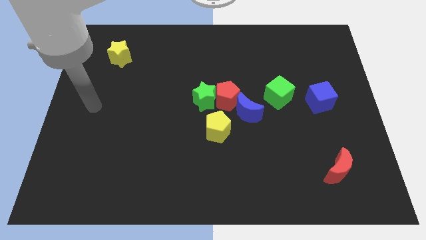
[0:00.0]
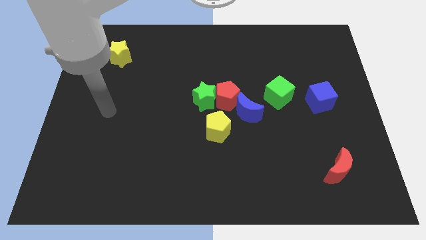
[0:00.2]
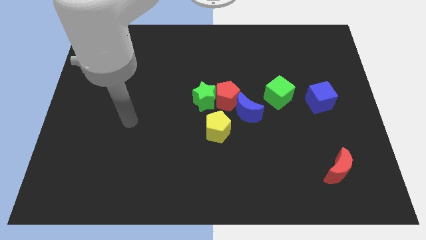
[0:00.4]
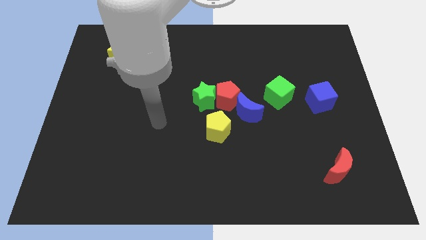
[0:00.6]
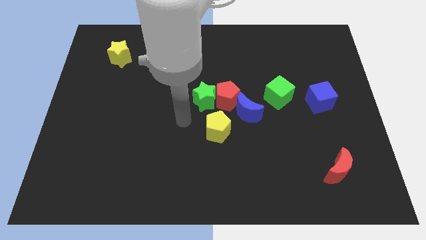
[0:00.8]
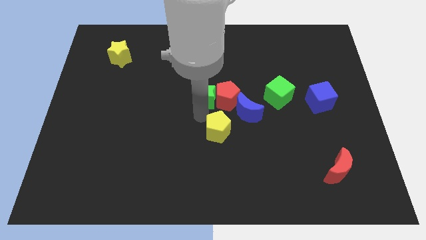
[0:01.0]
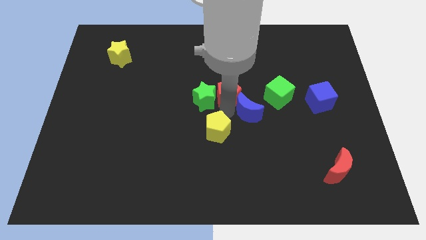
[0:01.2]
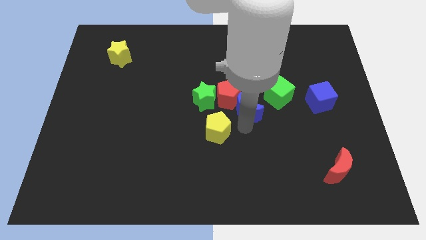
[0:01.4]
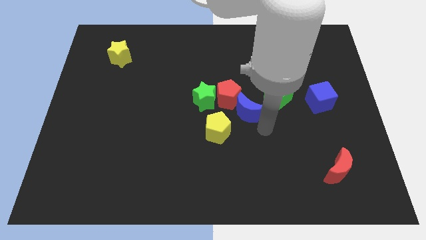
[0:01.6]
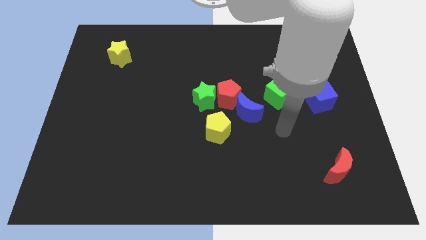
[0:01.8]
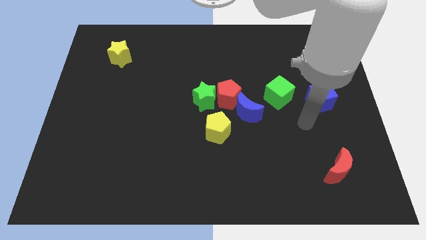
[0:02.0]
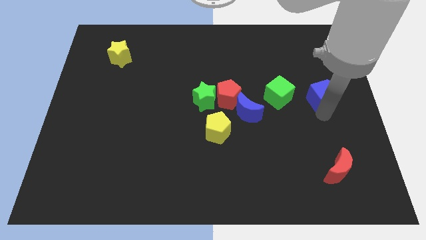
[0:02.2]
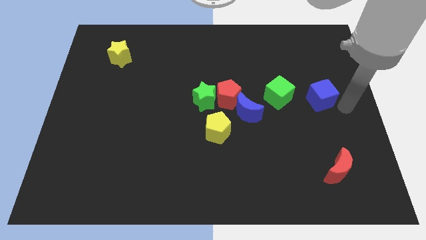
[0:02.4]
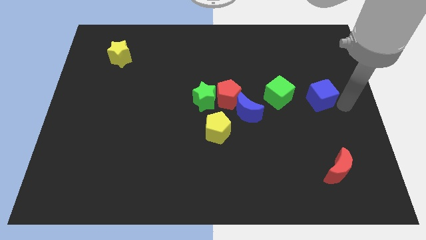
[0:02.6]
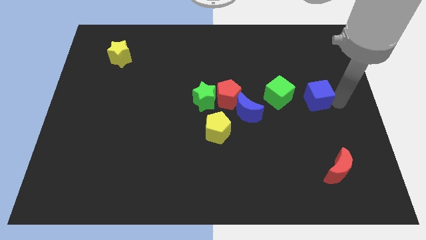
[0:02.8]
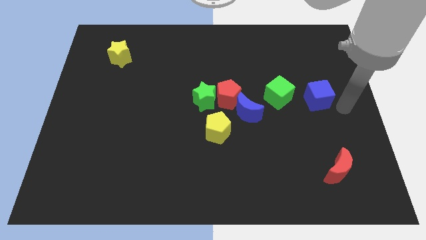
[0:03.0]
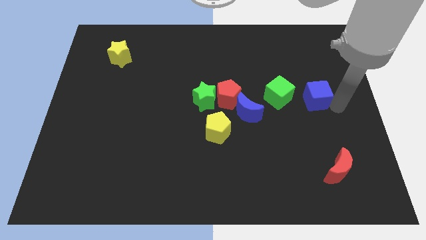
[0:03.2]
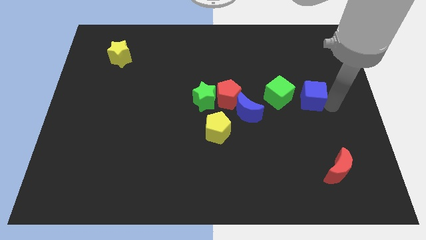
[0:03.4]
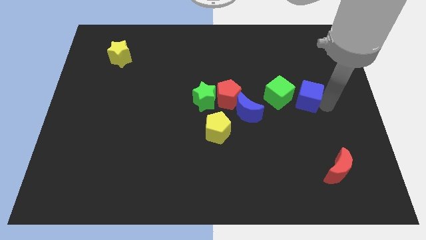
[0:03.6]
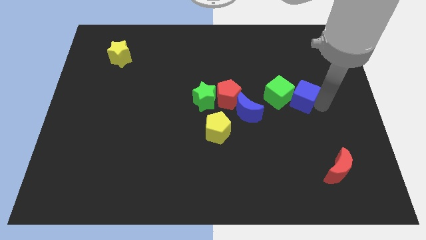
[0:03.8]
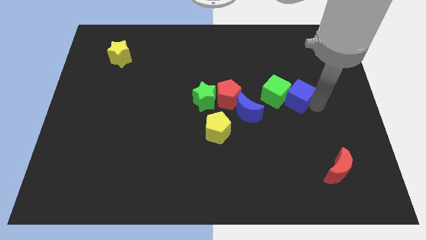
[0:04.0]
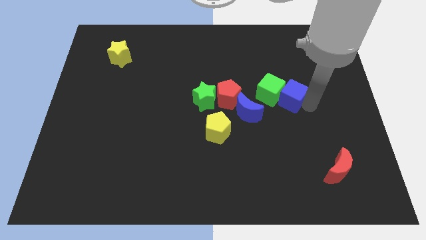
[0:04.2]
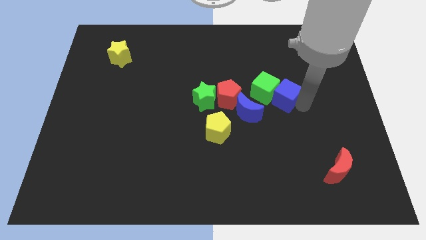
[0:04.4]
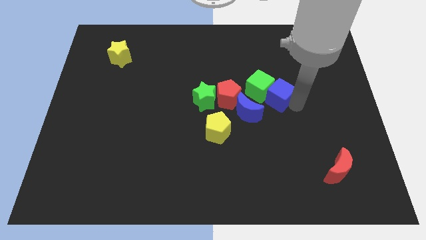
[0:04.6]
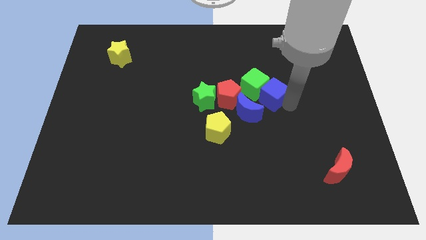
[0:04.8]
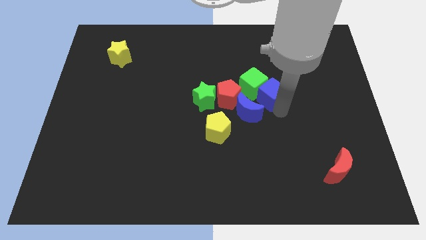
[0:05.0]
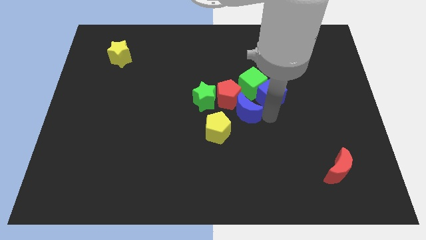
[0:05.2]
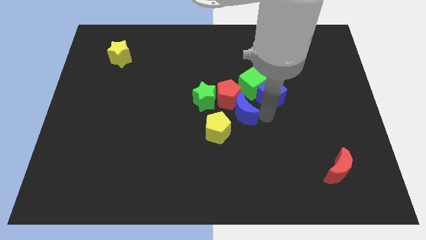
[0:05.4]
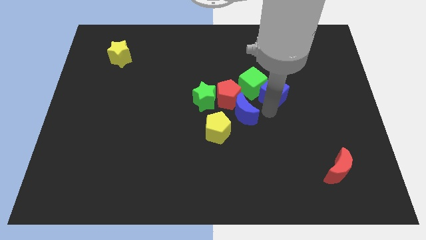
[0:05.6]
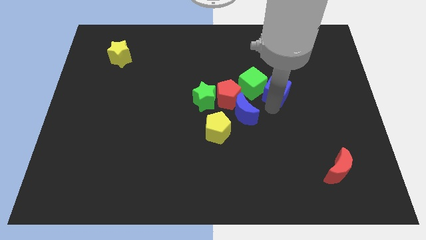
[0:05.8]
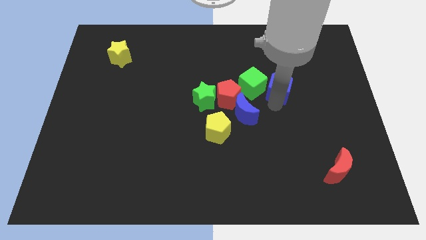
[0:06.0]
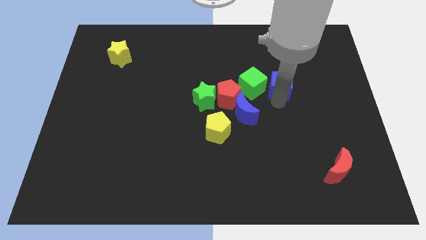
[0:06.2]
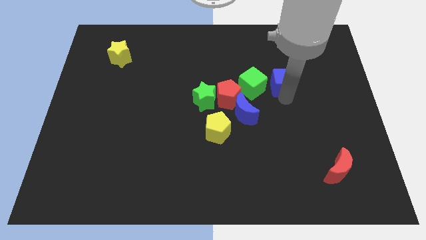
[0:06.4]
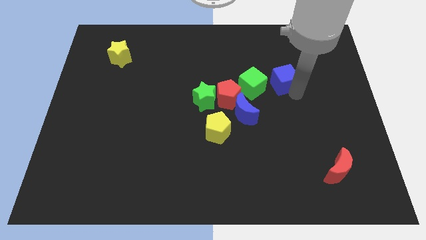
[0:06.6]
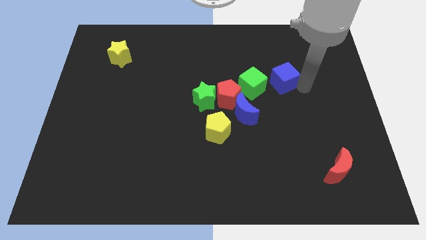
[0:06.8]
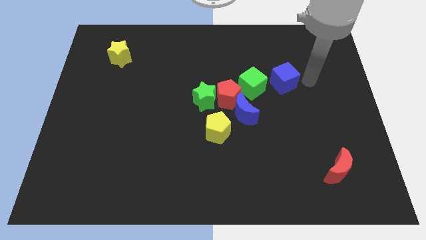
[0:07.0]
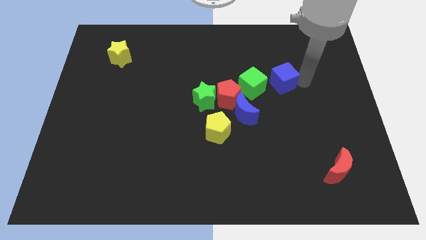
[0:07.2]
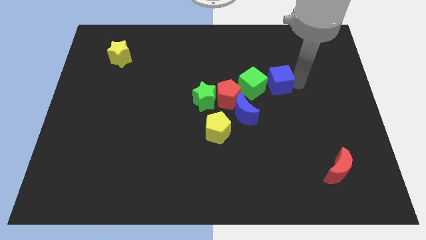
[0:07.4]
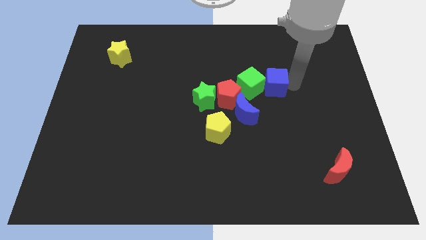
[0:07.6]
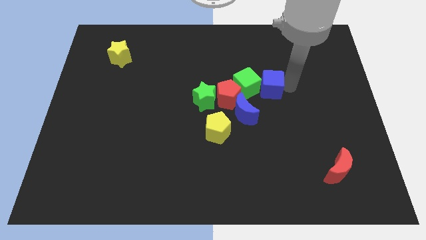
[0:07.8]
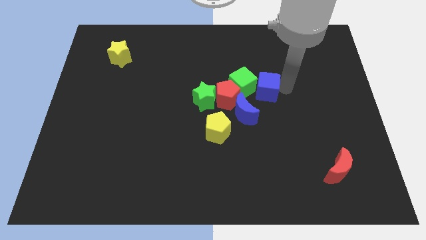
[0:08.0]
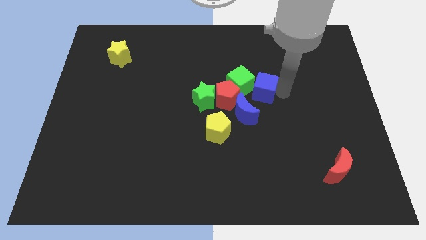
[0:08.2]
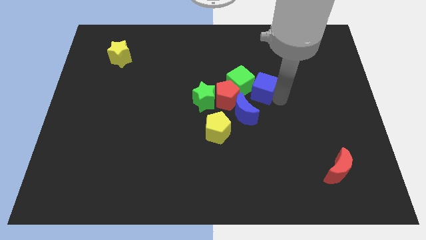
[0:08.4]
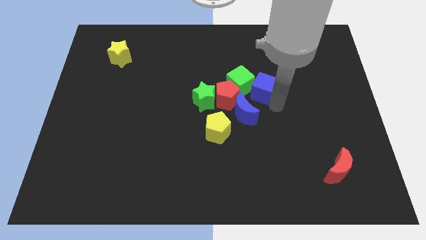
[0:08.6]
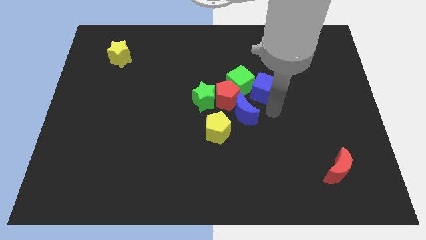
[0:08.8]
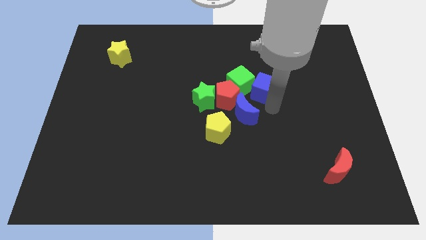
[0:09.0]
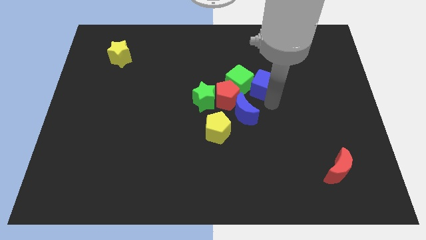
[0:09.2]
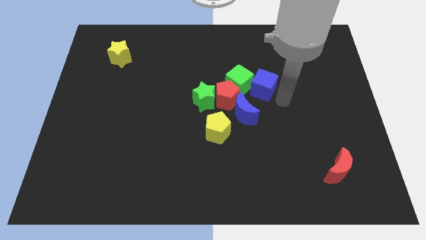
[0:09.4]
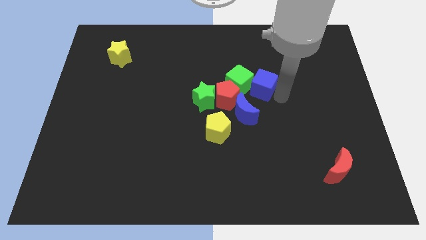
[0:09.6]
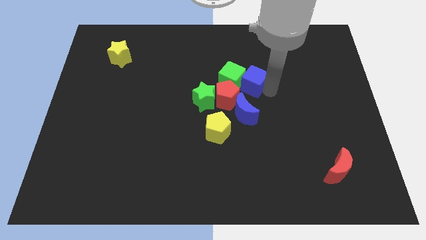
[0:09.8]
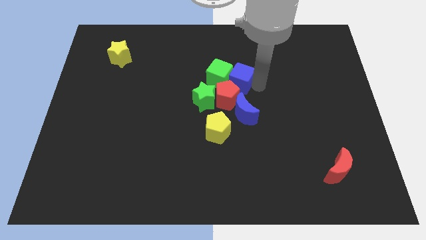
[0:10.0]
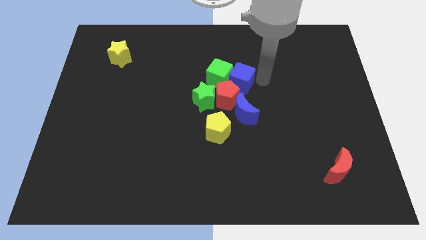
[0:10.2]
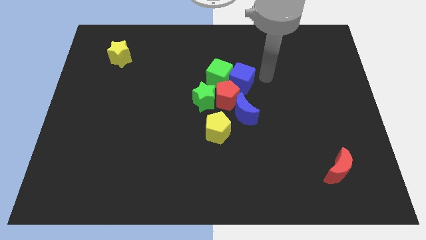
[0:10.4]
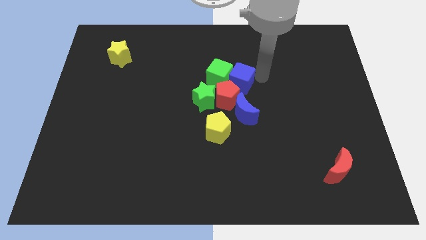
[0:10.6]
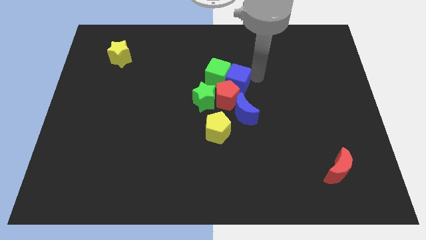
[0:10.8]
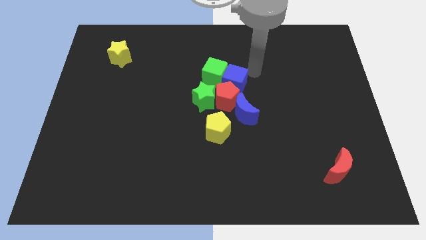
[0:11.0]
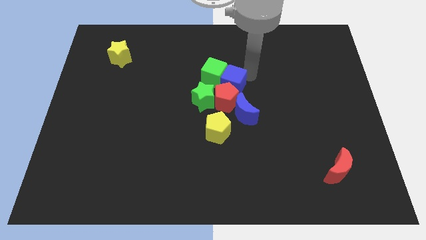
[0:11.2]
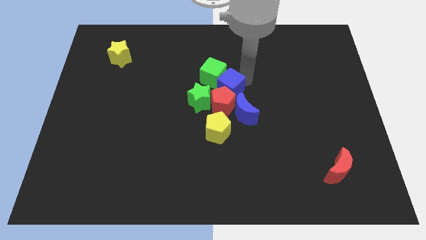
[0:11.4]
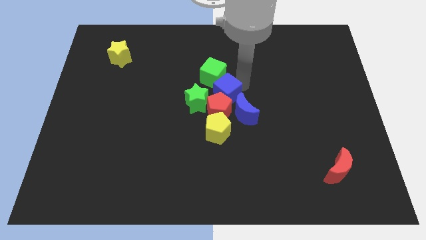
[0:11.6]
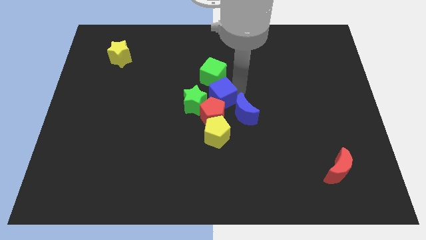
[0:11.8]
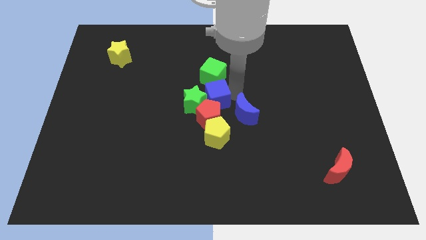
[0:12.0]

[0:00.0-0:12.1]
slide the blue cube next to the green star

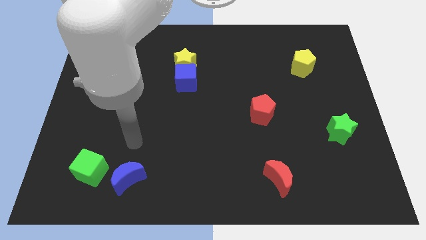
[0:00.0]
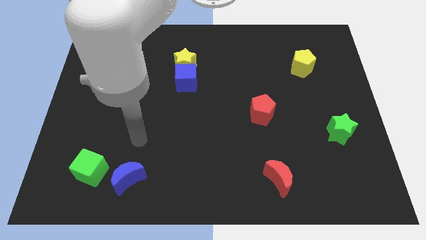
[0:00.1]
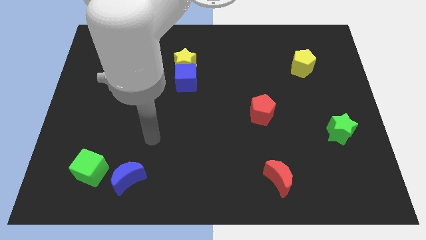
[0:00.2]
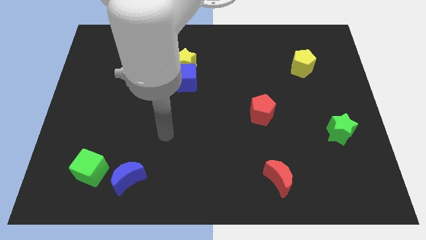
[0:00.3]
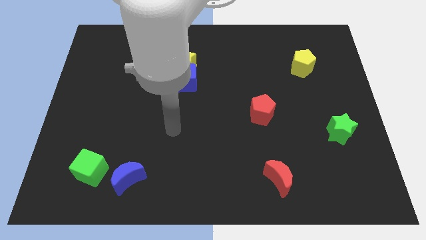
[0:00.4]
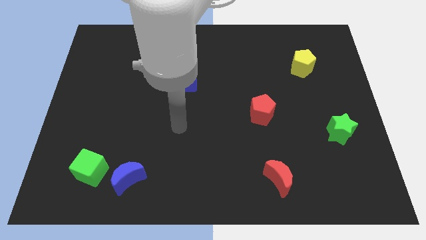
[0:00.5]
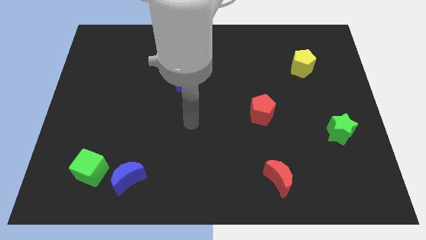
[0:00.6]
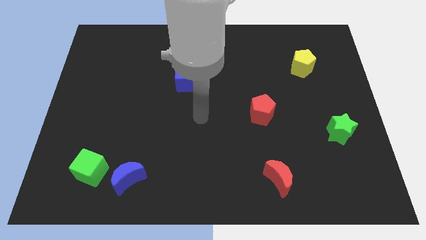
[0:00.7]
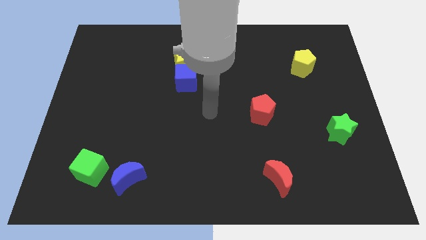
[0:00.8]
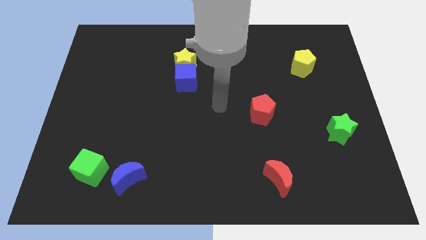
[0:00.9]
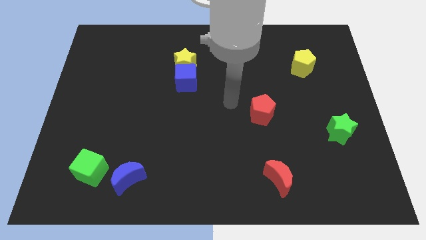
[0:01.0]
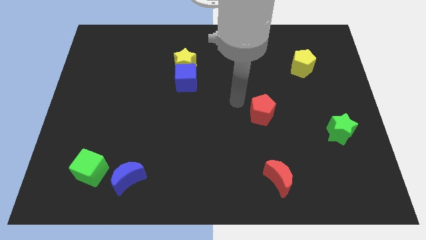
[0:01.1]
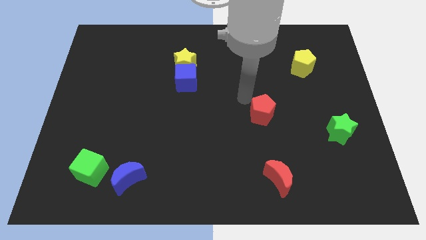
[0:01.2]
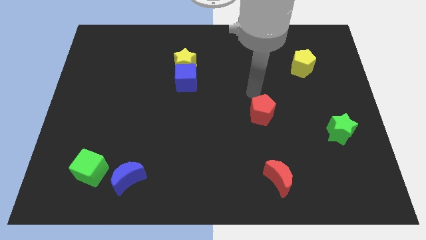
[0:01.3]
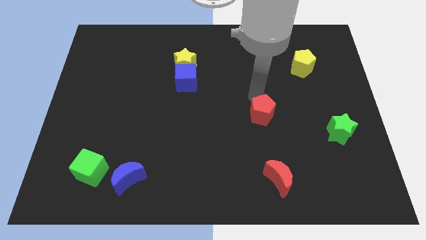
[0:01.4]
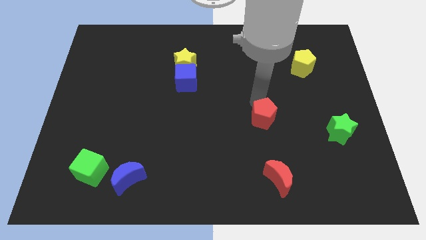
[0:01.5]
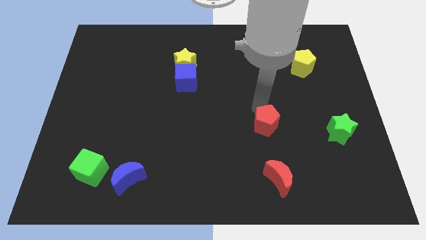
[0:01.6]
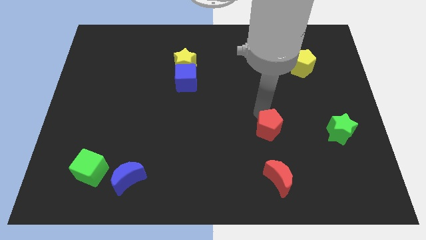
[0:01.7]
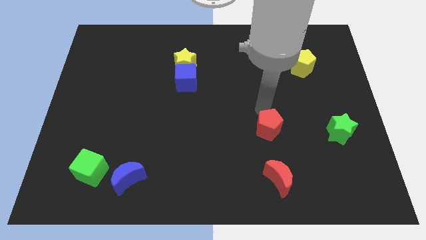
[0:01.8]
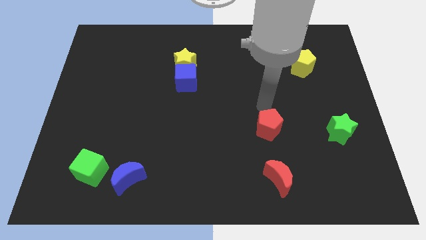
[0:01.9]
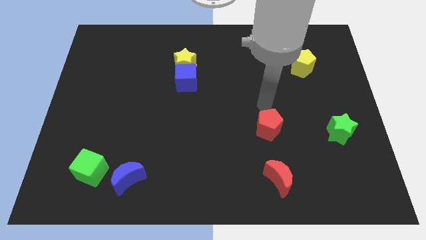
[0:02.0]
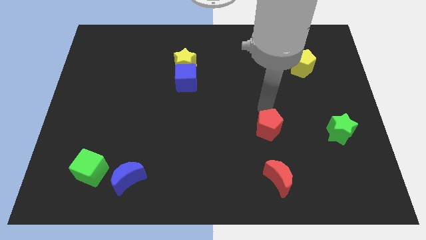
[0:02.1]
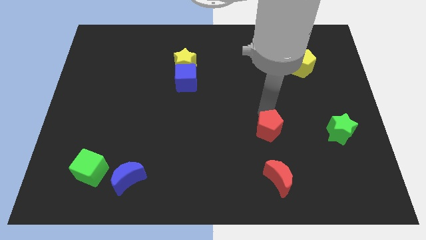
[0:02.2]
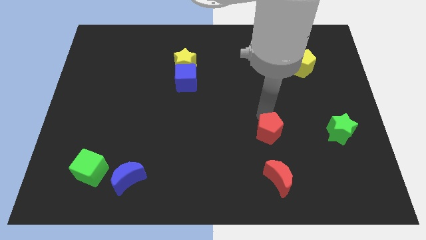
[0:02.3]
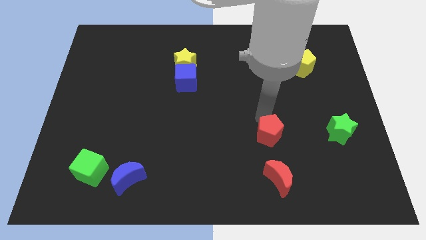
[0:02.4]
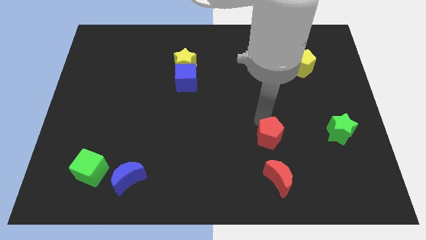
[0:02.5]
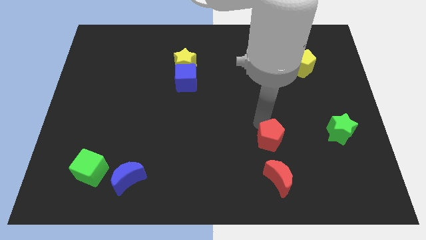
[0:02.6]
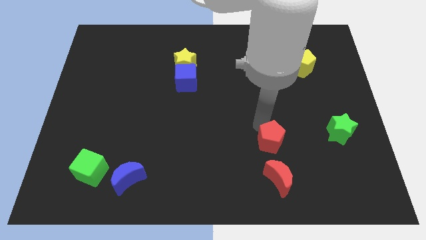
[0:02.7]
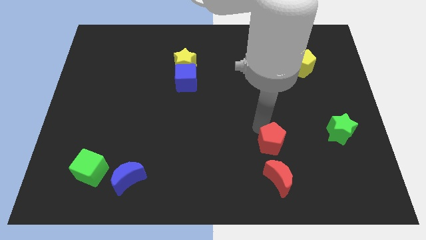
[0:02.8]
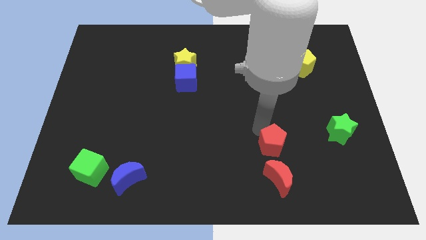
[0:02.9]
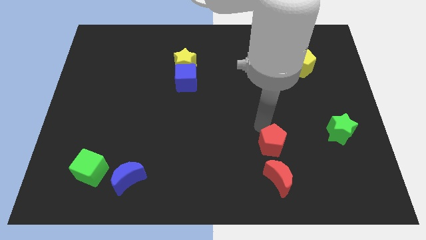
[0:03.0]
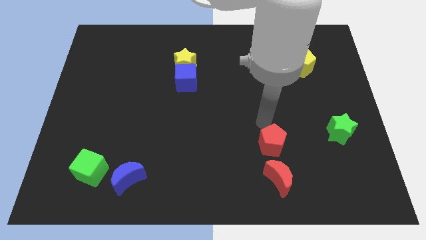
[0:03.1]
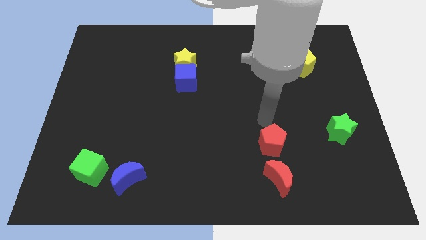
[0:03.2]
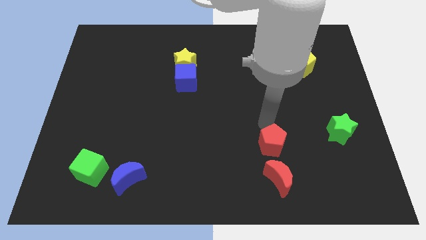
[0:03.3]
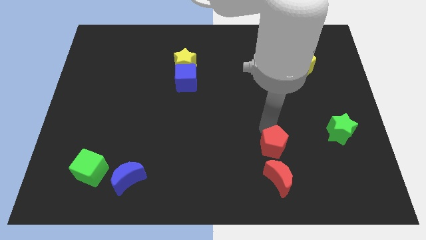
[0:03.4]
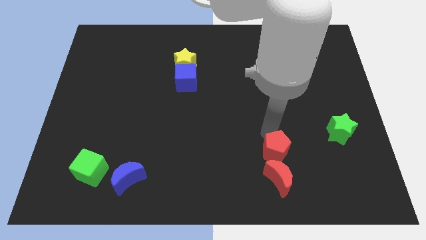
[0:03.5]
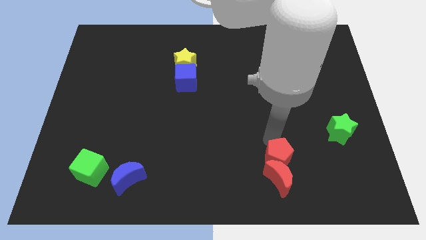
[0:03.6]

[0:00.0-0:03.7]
slide the red pentagon to the red moon
